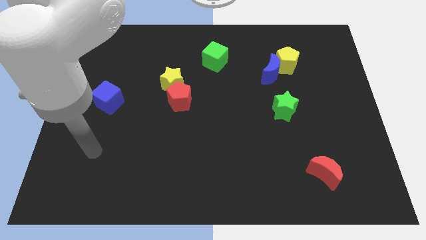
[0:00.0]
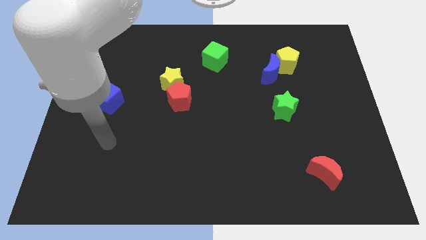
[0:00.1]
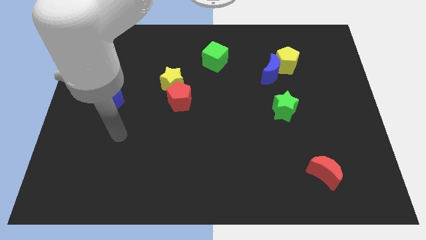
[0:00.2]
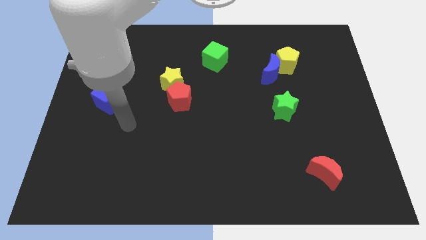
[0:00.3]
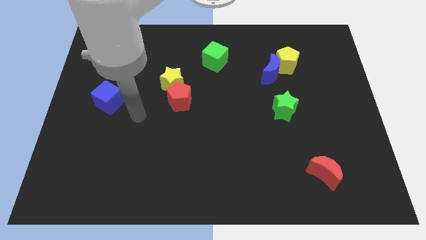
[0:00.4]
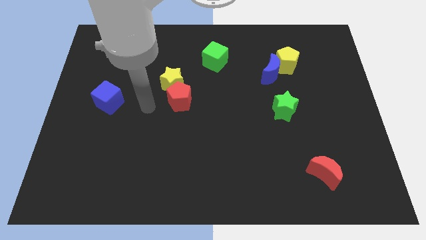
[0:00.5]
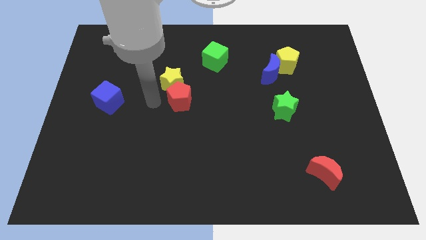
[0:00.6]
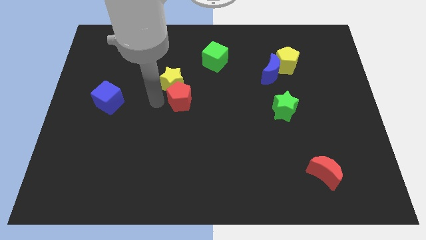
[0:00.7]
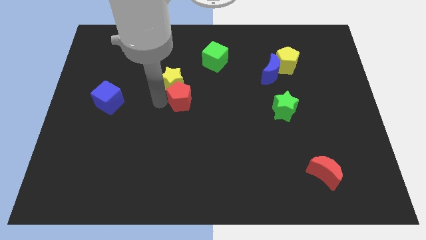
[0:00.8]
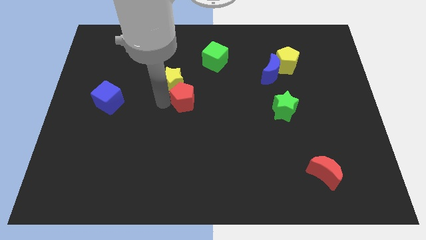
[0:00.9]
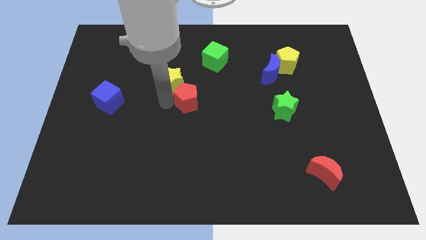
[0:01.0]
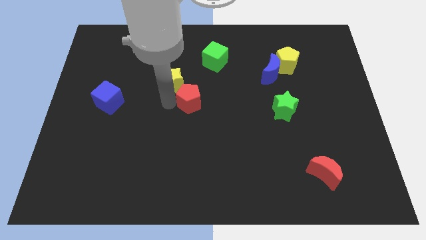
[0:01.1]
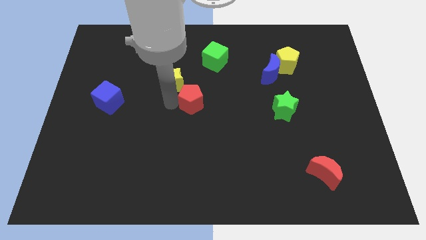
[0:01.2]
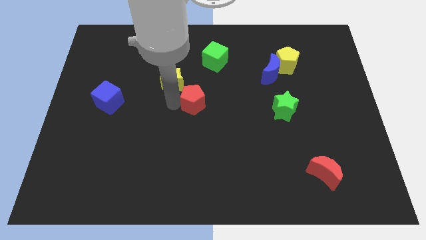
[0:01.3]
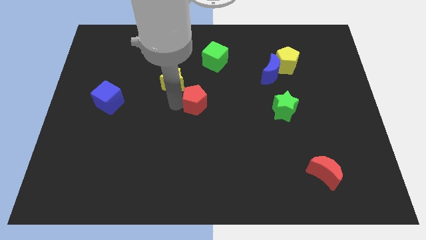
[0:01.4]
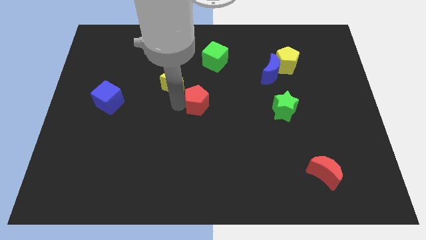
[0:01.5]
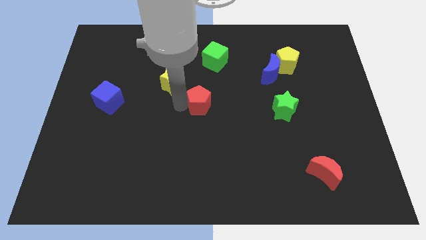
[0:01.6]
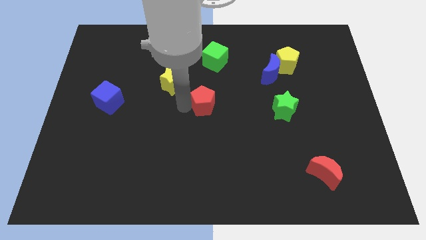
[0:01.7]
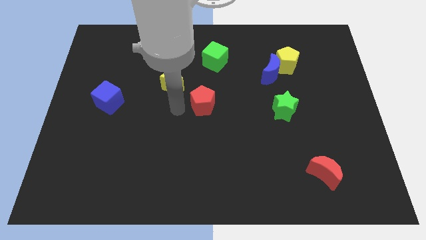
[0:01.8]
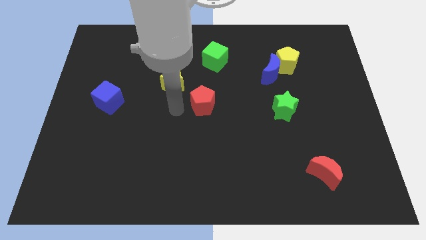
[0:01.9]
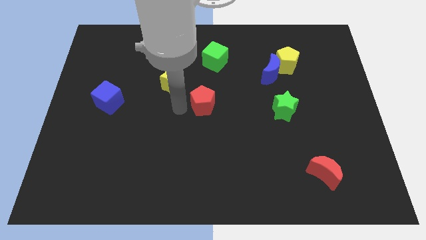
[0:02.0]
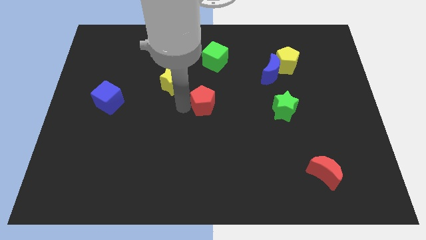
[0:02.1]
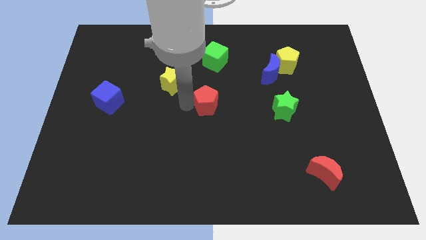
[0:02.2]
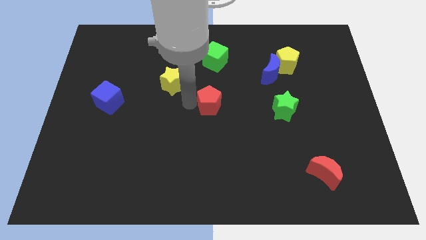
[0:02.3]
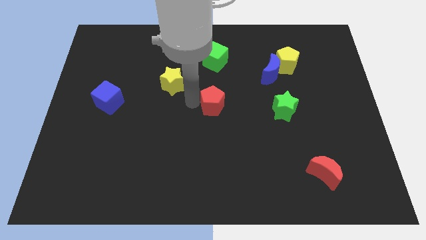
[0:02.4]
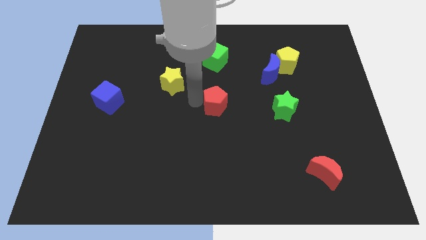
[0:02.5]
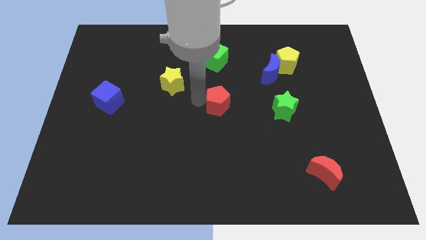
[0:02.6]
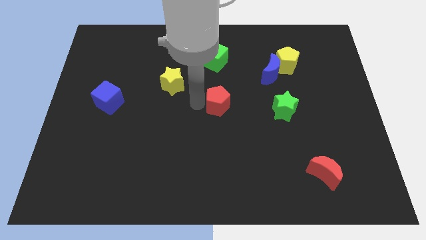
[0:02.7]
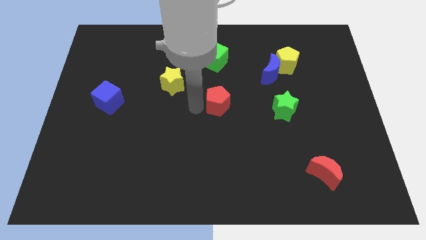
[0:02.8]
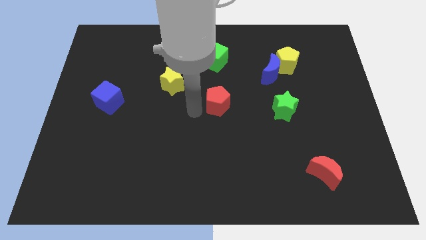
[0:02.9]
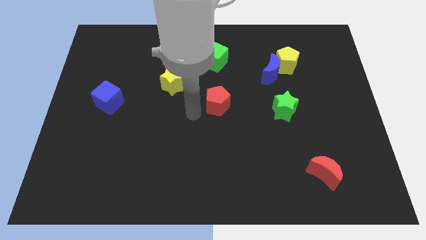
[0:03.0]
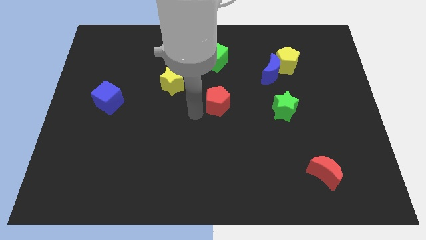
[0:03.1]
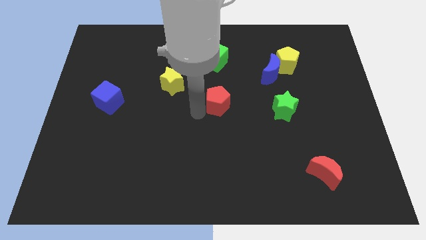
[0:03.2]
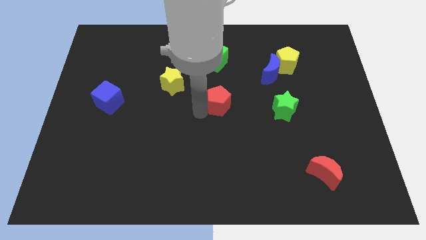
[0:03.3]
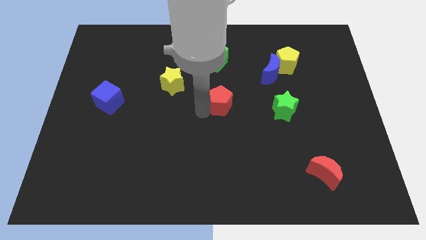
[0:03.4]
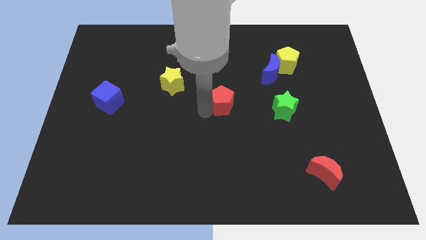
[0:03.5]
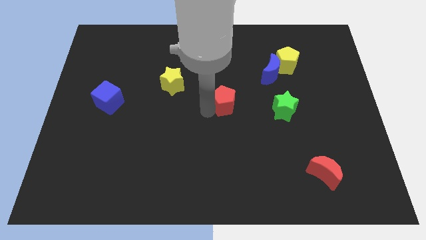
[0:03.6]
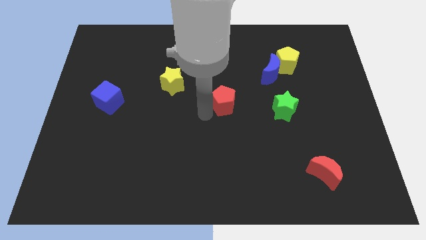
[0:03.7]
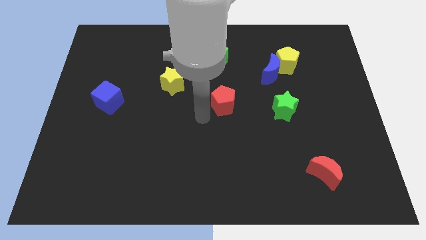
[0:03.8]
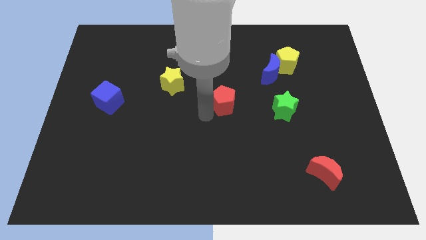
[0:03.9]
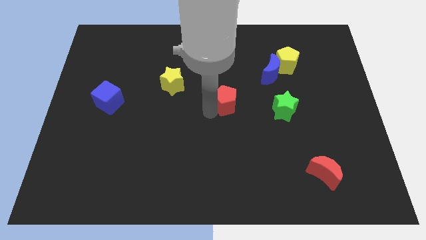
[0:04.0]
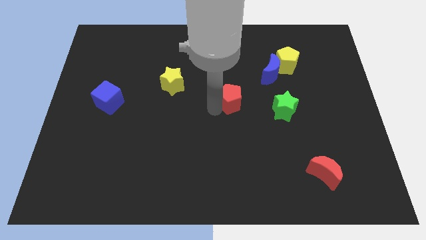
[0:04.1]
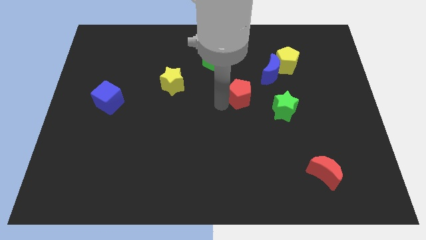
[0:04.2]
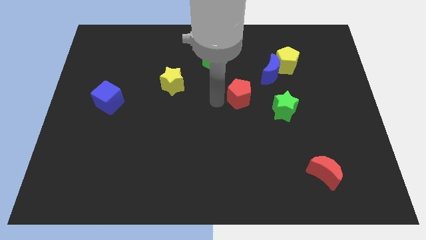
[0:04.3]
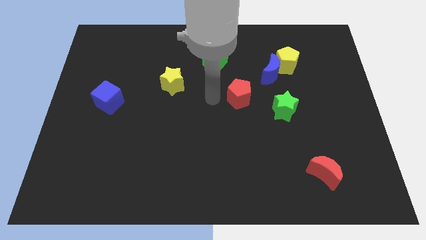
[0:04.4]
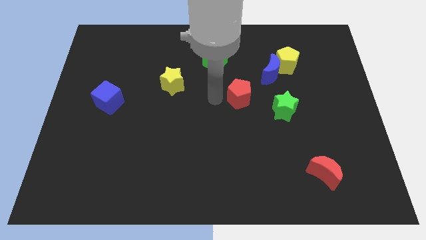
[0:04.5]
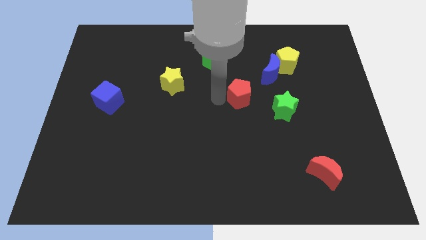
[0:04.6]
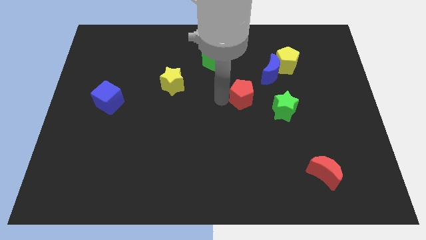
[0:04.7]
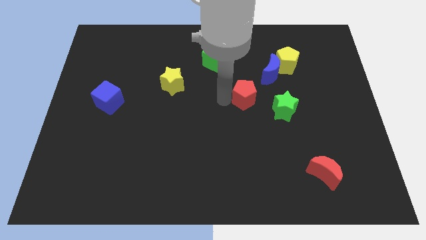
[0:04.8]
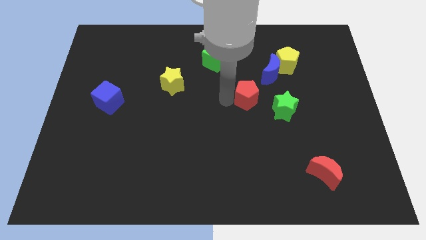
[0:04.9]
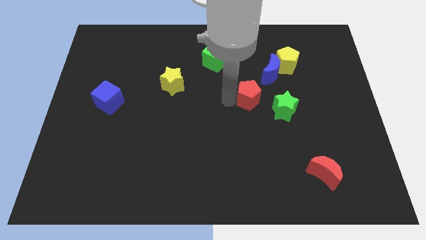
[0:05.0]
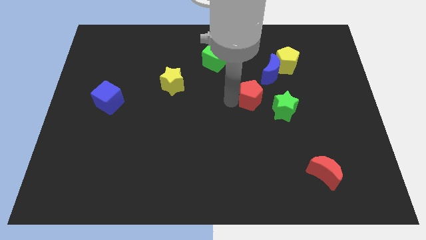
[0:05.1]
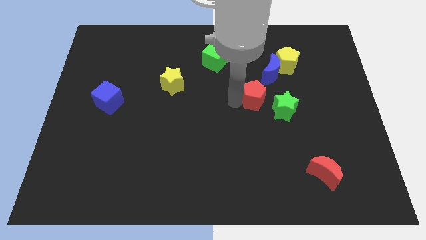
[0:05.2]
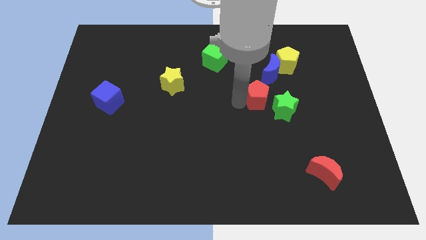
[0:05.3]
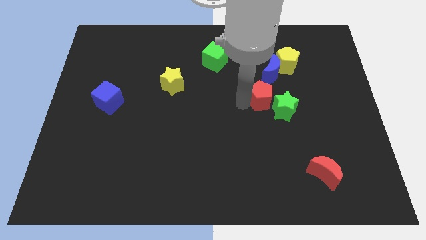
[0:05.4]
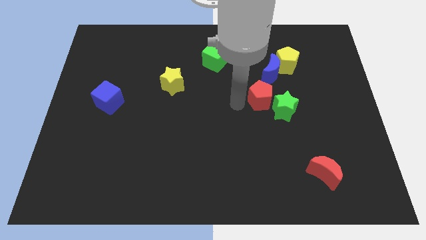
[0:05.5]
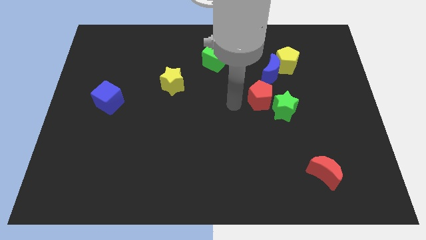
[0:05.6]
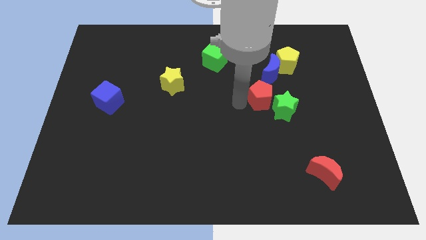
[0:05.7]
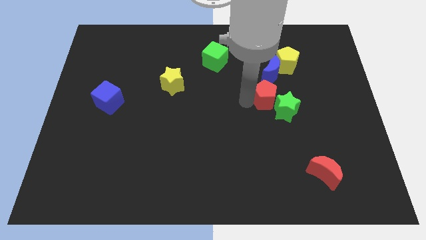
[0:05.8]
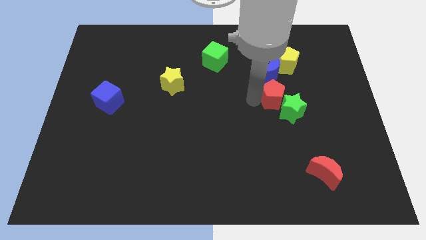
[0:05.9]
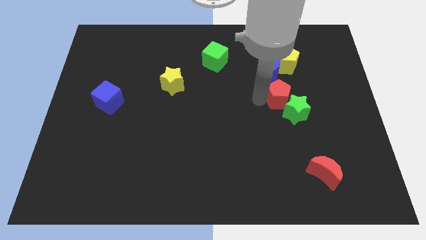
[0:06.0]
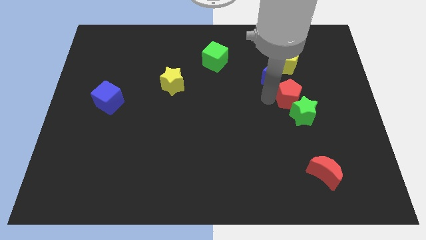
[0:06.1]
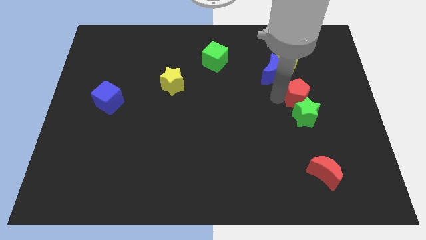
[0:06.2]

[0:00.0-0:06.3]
slide the red pentagon to the top right of the green star
